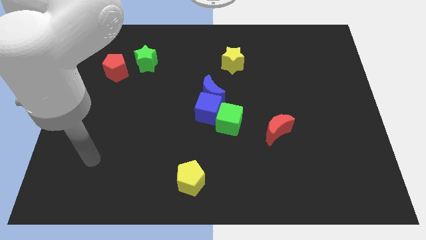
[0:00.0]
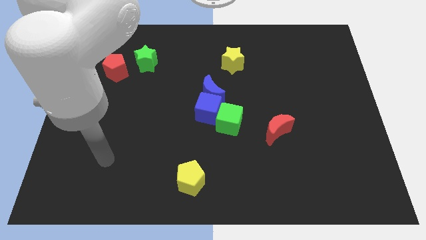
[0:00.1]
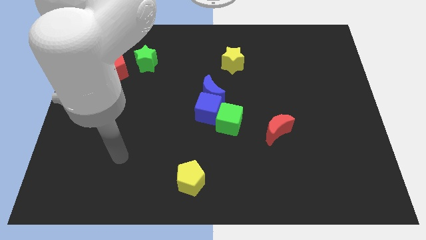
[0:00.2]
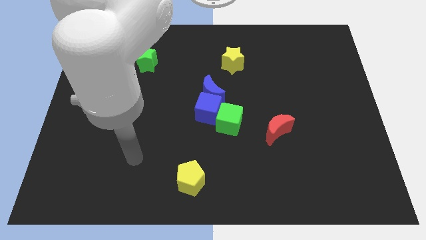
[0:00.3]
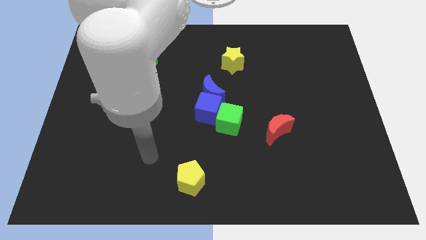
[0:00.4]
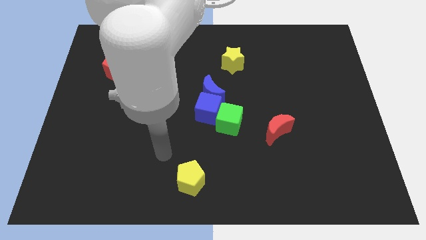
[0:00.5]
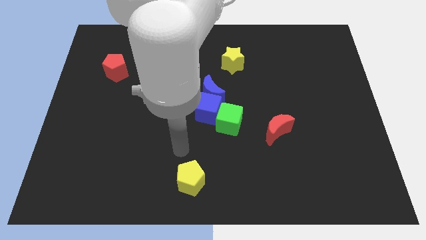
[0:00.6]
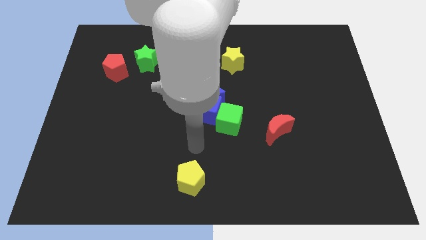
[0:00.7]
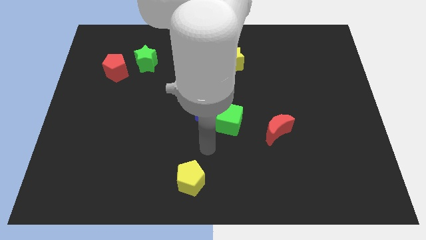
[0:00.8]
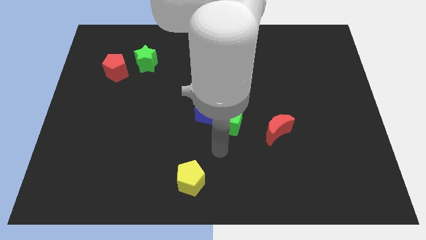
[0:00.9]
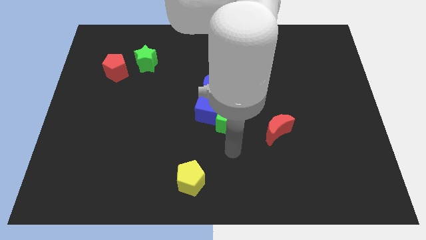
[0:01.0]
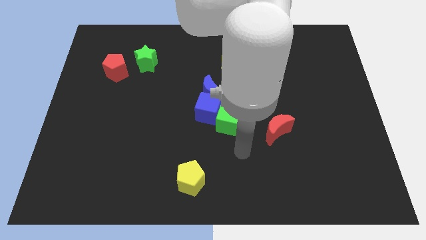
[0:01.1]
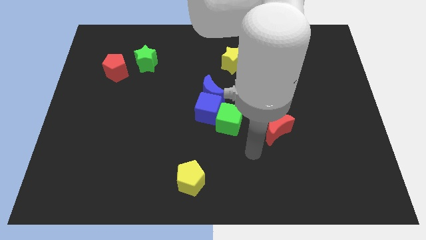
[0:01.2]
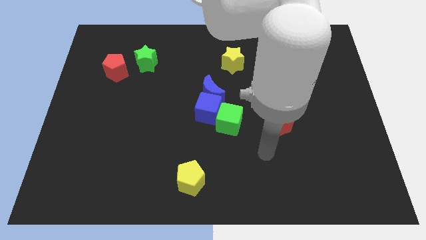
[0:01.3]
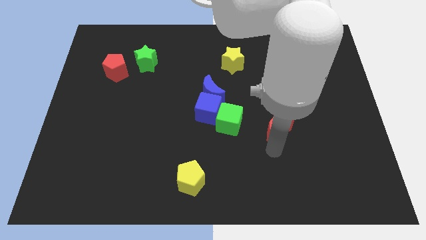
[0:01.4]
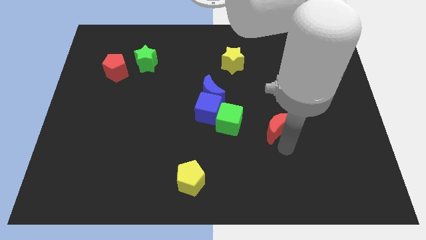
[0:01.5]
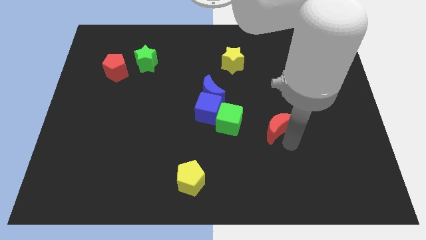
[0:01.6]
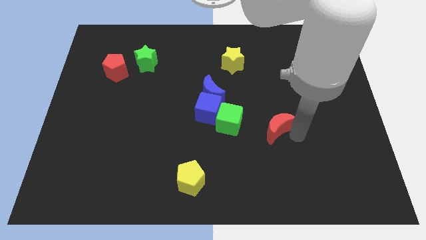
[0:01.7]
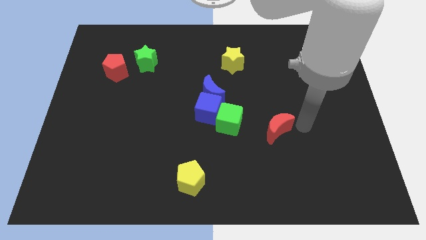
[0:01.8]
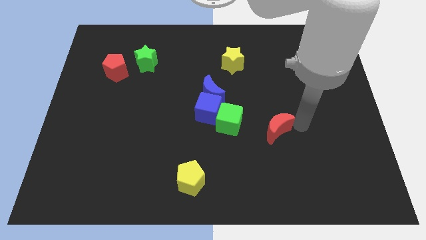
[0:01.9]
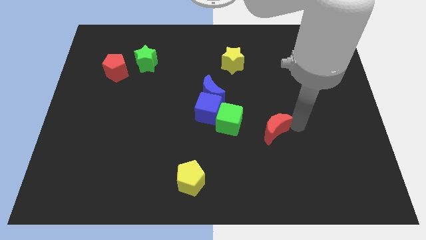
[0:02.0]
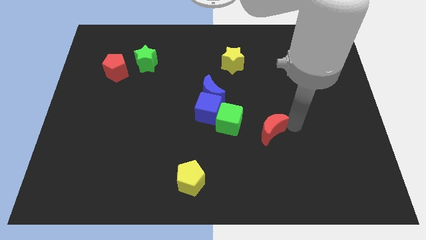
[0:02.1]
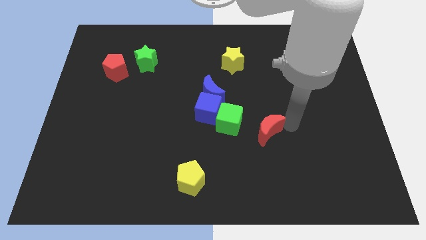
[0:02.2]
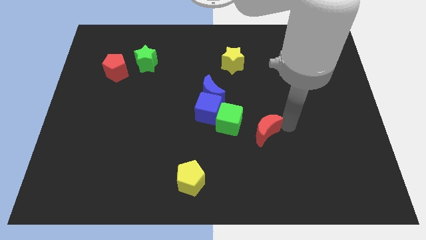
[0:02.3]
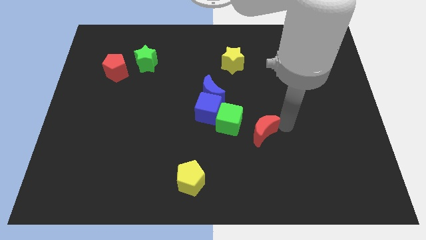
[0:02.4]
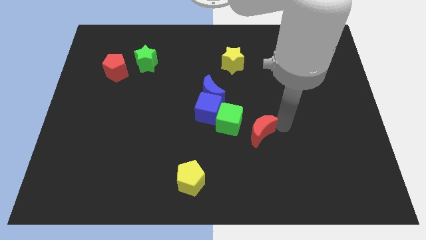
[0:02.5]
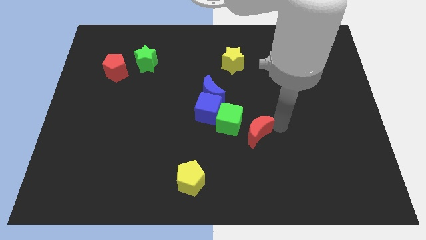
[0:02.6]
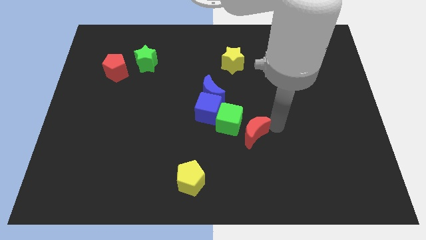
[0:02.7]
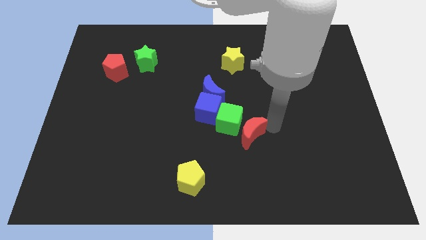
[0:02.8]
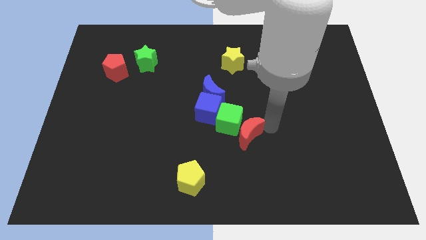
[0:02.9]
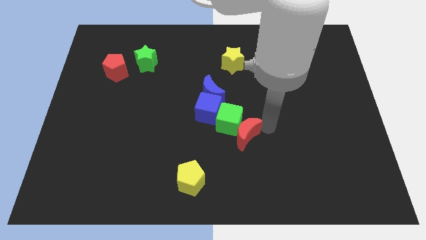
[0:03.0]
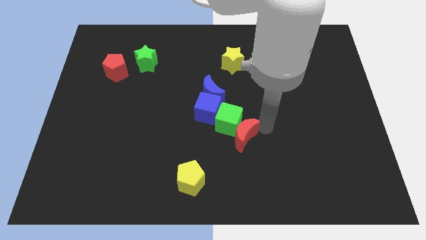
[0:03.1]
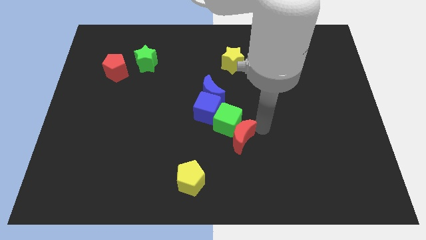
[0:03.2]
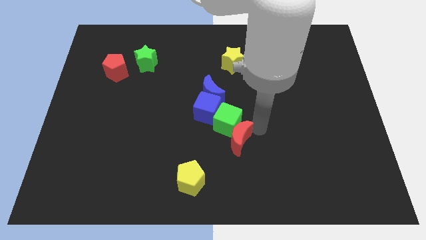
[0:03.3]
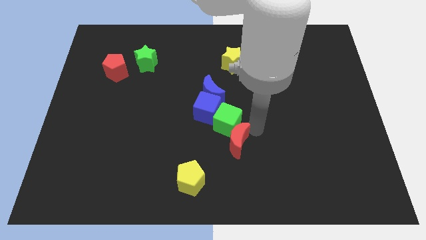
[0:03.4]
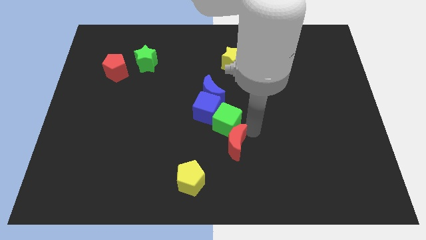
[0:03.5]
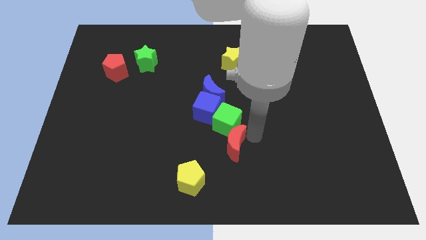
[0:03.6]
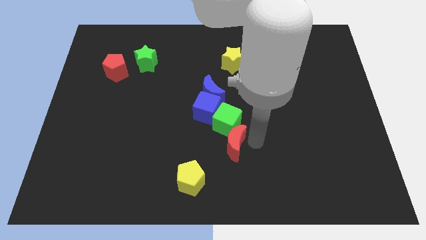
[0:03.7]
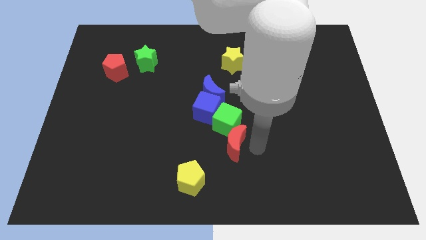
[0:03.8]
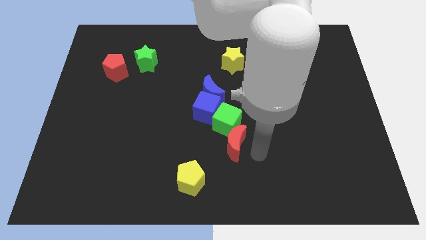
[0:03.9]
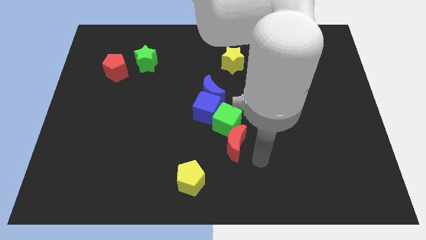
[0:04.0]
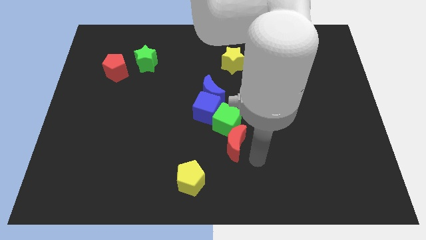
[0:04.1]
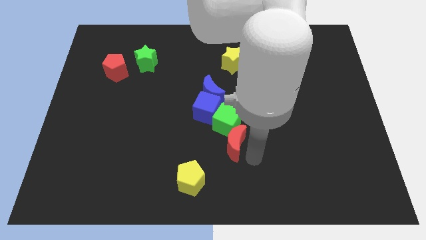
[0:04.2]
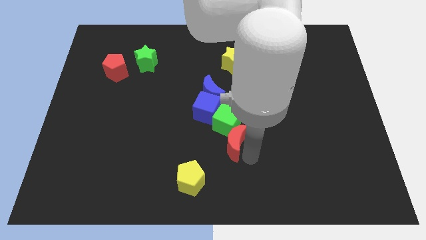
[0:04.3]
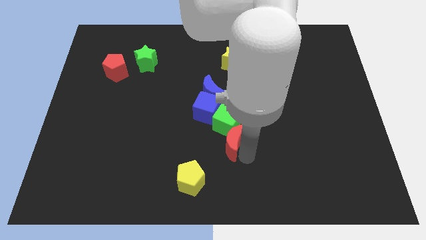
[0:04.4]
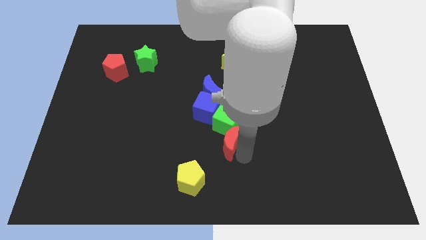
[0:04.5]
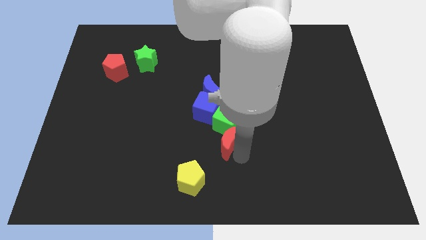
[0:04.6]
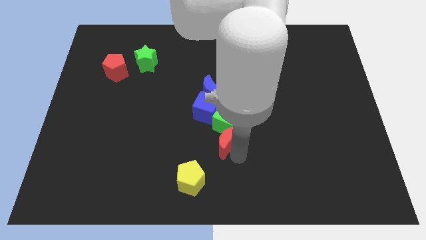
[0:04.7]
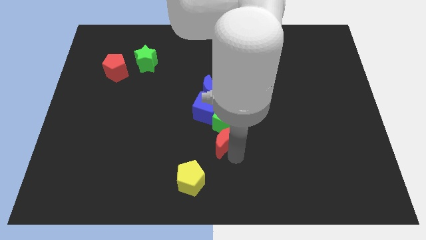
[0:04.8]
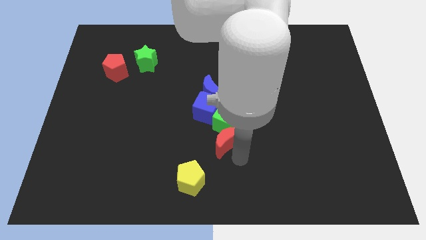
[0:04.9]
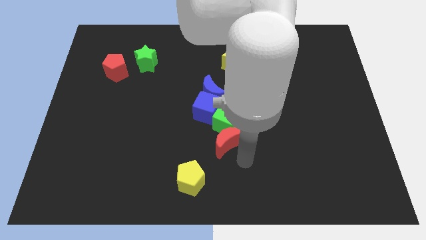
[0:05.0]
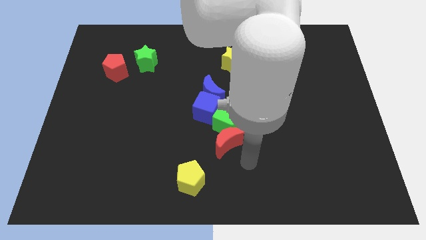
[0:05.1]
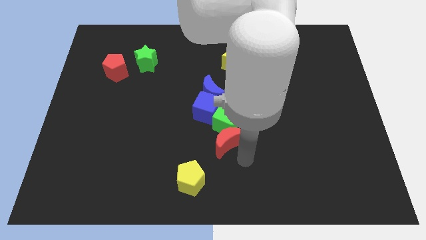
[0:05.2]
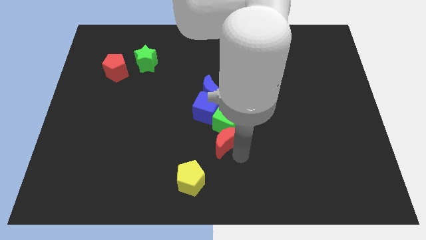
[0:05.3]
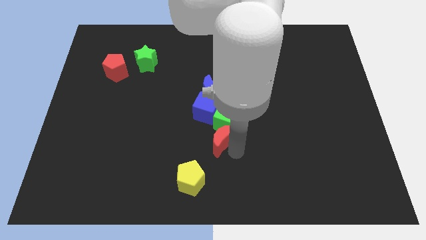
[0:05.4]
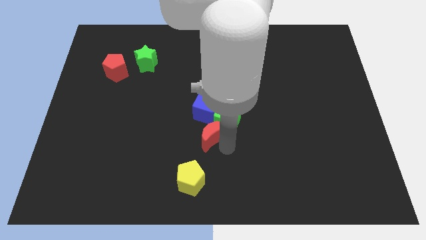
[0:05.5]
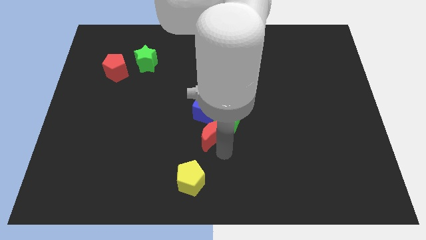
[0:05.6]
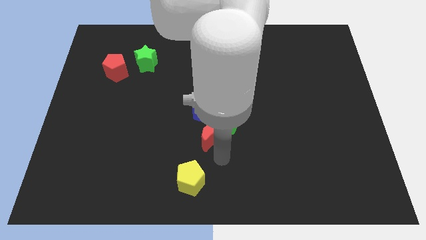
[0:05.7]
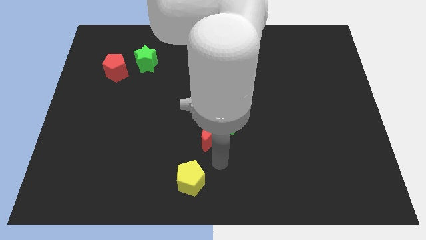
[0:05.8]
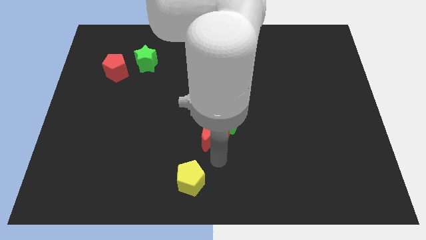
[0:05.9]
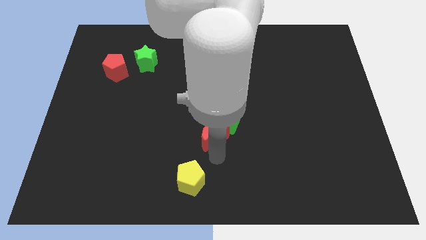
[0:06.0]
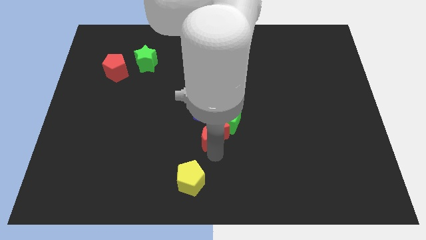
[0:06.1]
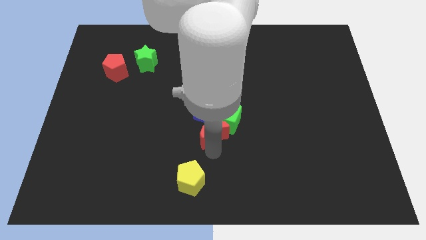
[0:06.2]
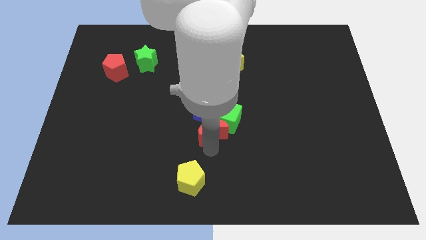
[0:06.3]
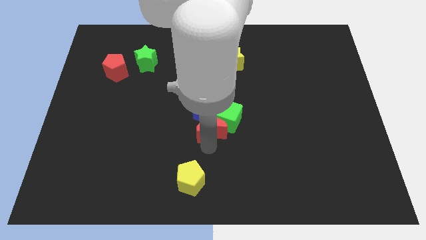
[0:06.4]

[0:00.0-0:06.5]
move the red moon close to the blue cube
